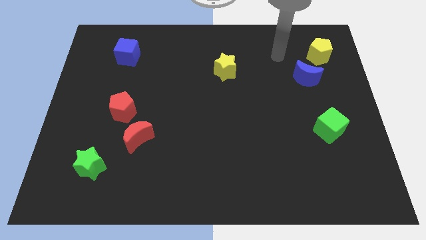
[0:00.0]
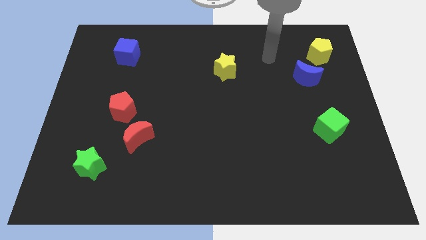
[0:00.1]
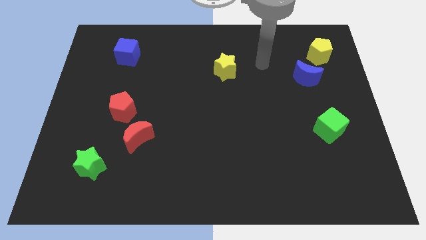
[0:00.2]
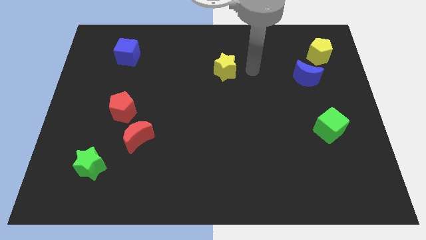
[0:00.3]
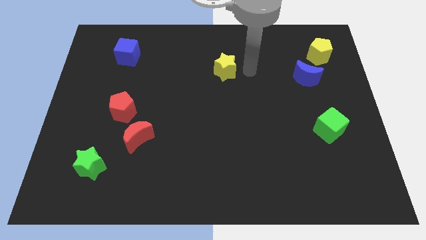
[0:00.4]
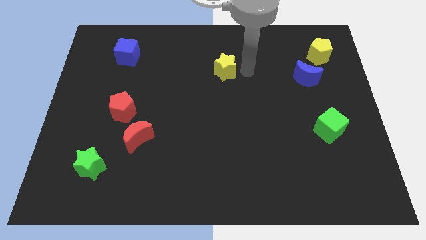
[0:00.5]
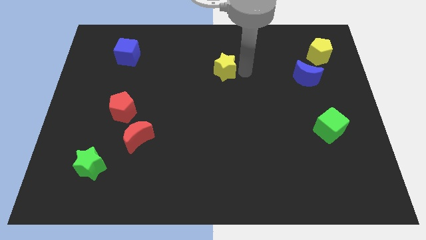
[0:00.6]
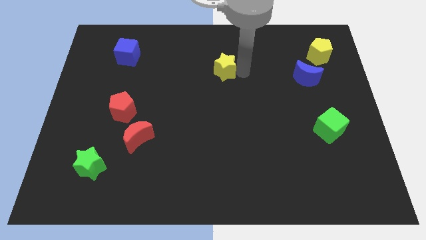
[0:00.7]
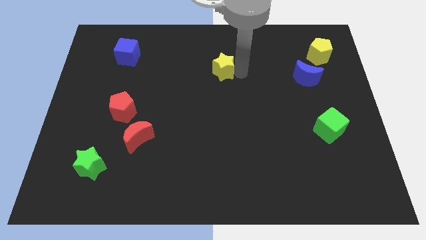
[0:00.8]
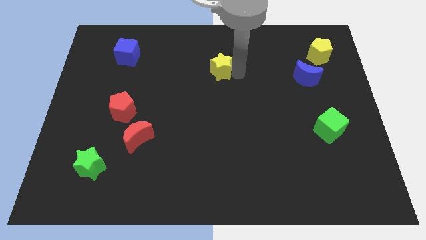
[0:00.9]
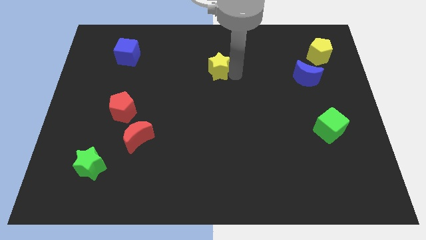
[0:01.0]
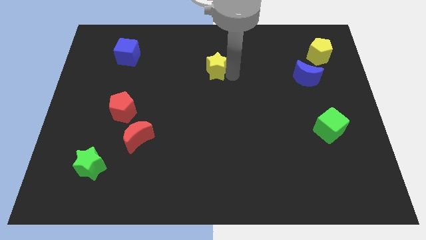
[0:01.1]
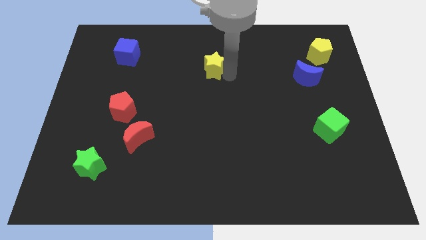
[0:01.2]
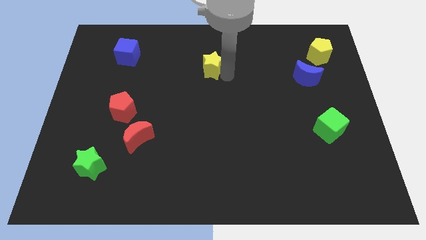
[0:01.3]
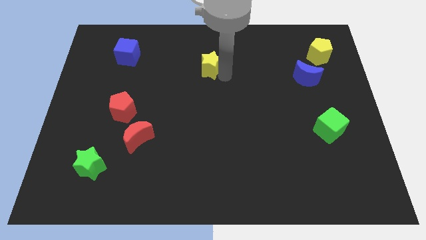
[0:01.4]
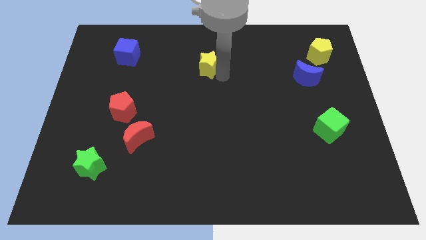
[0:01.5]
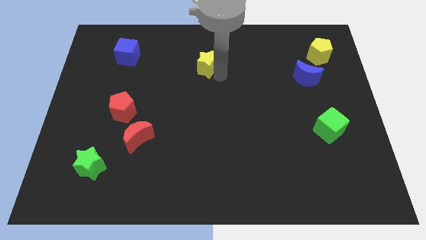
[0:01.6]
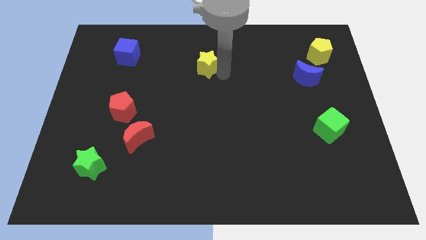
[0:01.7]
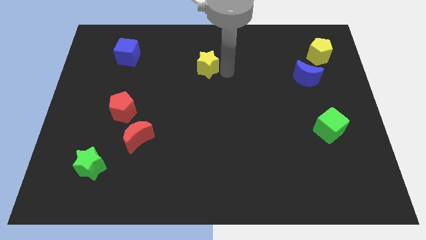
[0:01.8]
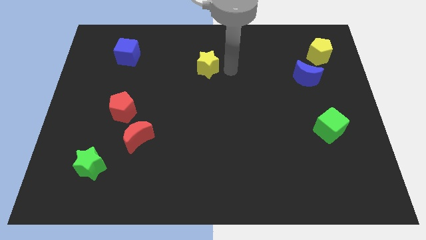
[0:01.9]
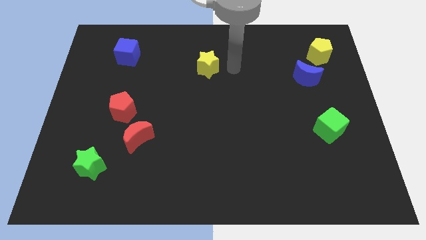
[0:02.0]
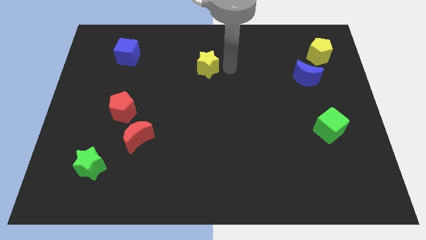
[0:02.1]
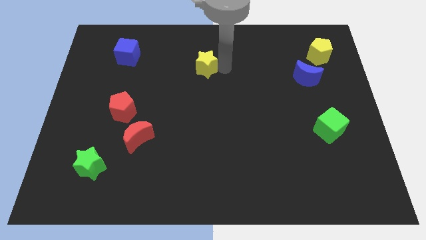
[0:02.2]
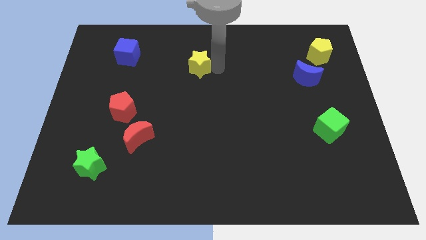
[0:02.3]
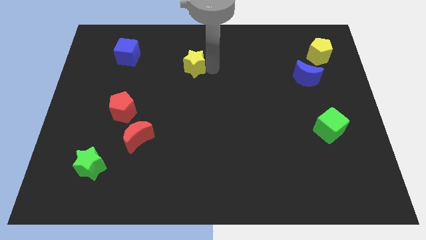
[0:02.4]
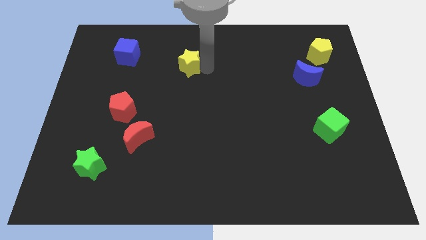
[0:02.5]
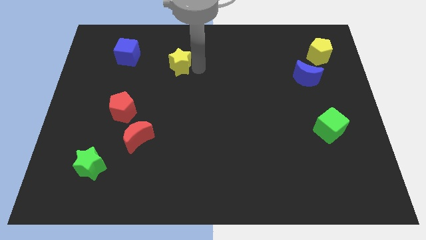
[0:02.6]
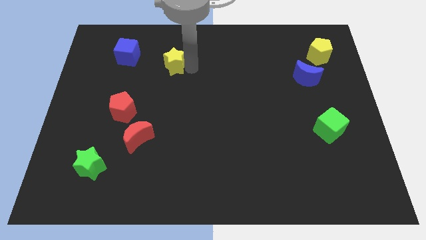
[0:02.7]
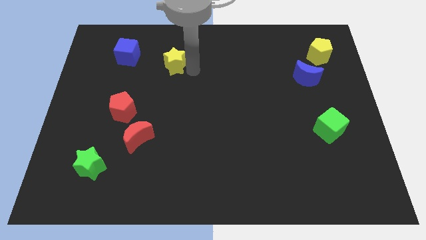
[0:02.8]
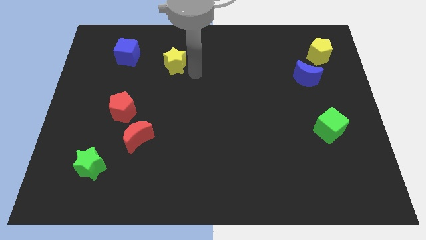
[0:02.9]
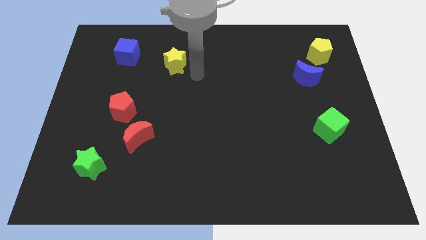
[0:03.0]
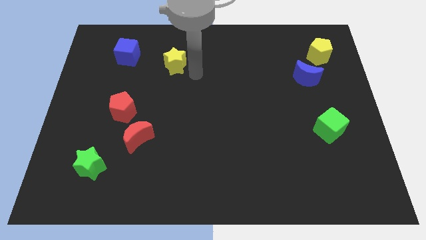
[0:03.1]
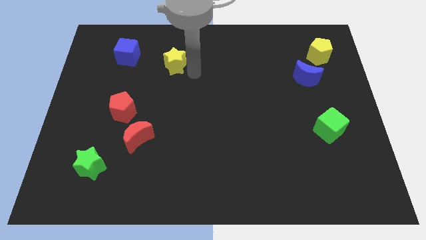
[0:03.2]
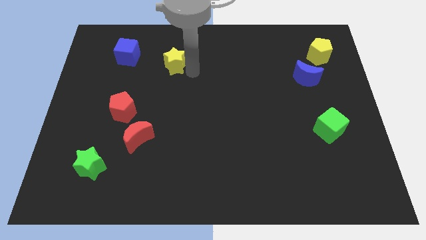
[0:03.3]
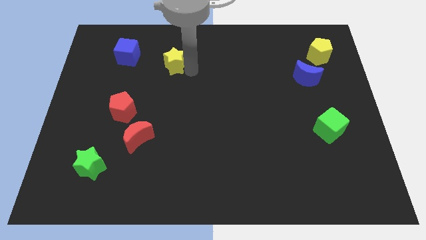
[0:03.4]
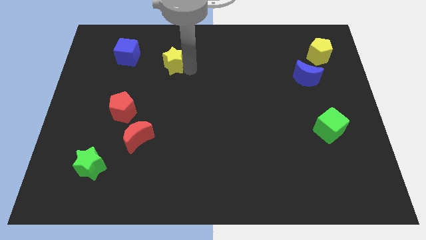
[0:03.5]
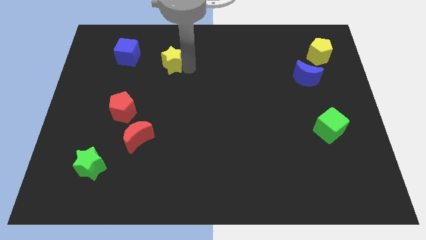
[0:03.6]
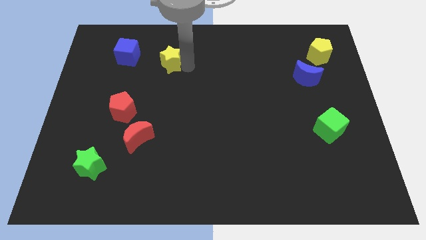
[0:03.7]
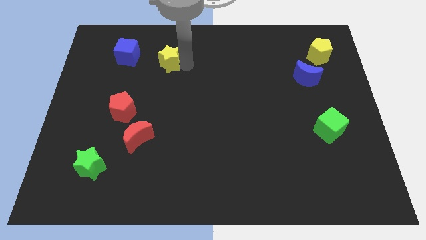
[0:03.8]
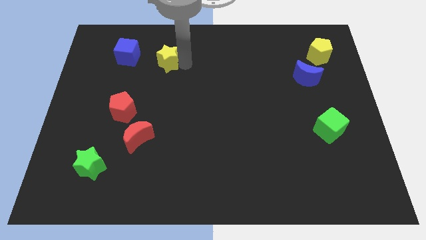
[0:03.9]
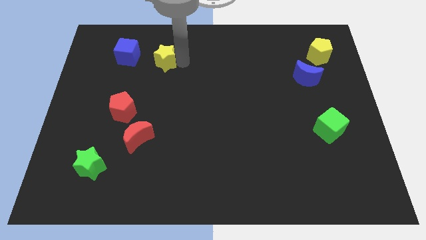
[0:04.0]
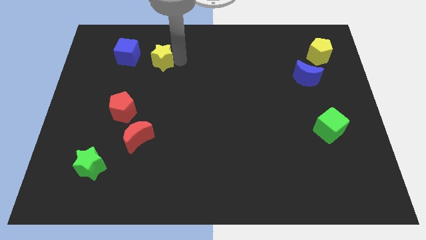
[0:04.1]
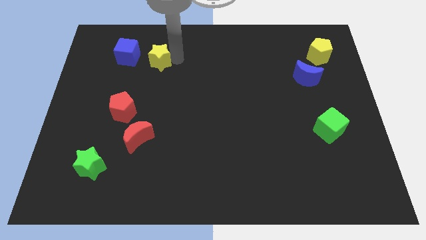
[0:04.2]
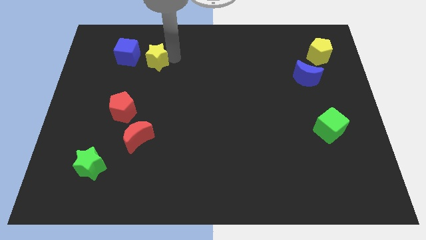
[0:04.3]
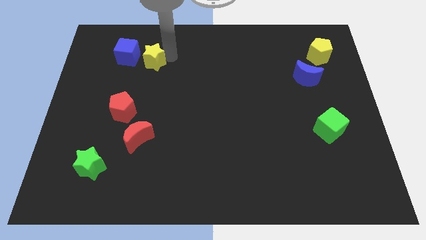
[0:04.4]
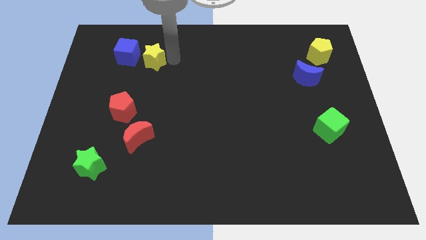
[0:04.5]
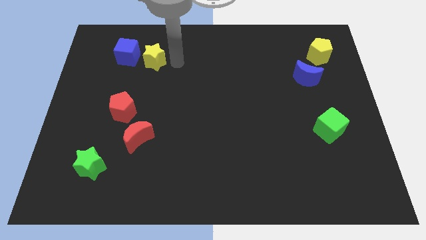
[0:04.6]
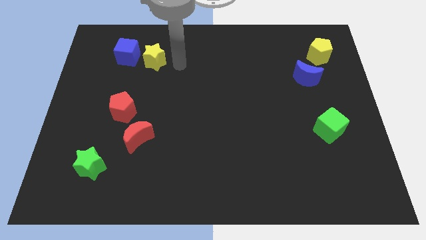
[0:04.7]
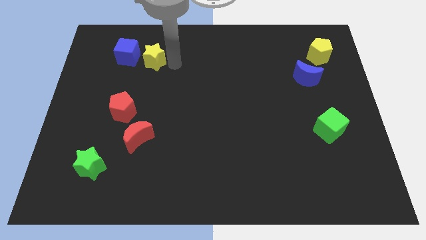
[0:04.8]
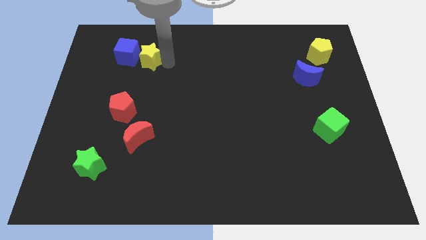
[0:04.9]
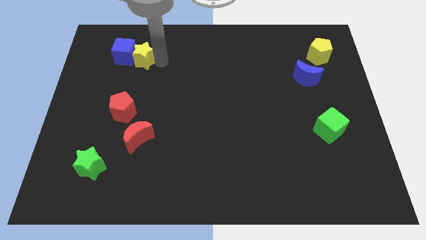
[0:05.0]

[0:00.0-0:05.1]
slide the yellow star close to the blue cube
